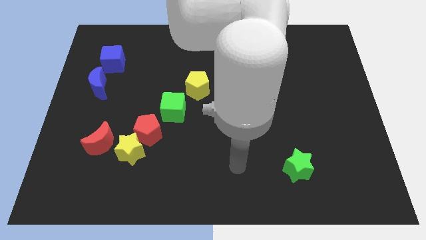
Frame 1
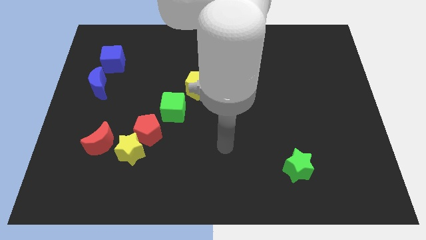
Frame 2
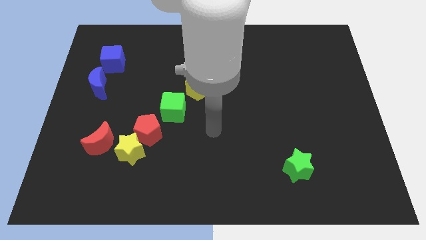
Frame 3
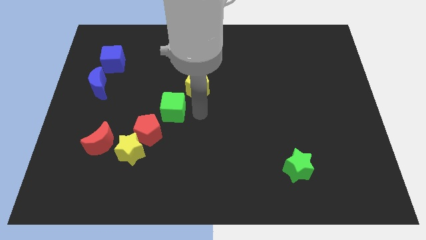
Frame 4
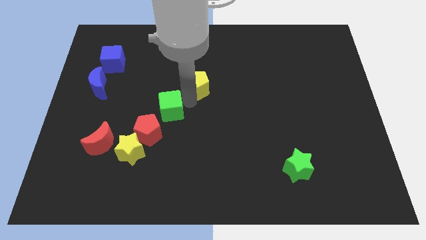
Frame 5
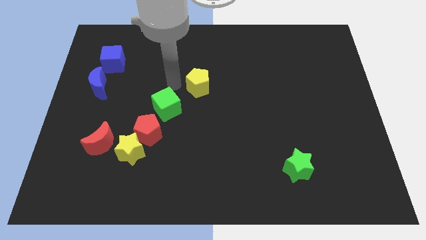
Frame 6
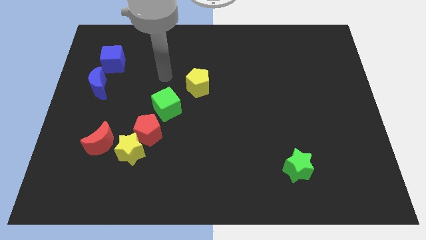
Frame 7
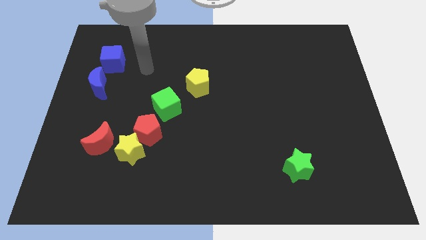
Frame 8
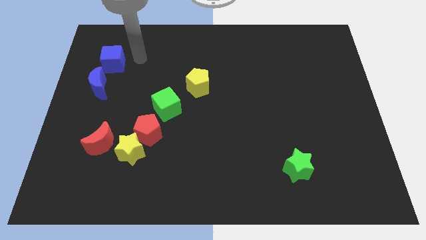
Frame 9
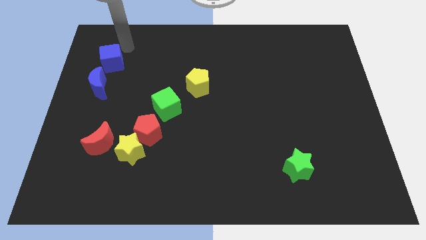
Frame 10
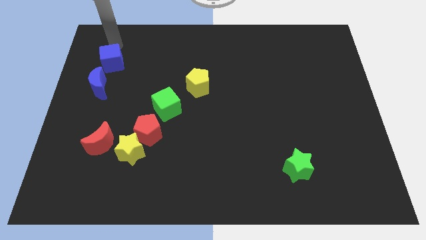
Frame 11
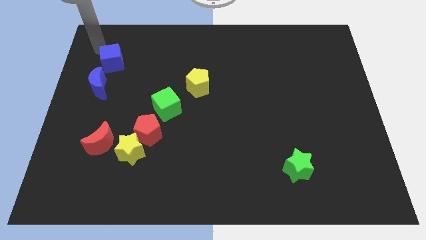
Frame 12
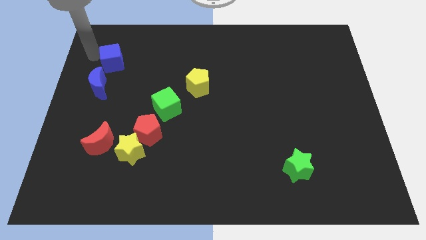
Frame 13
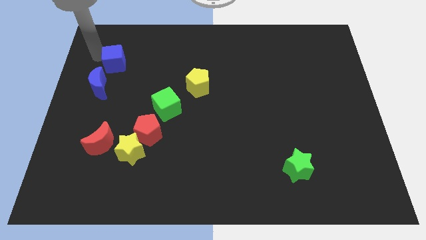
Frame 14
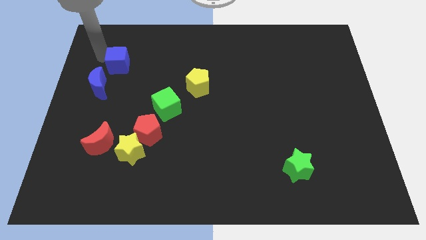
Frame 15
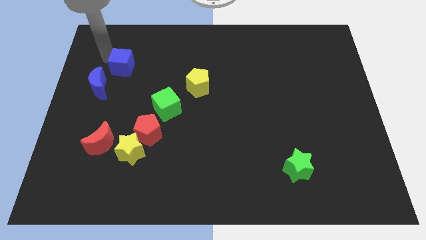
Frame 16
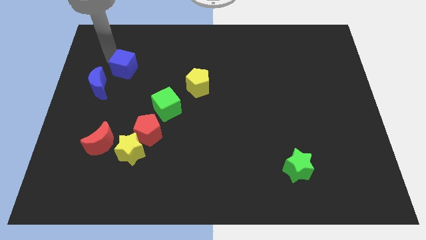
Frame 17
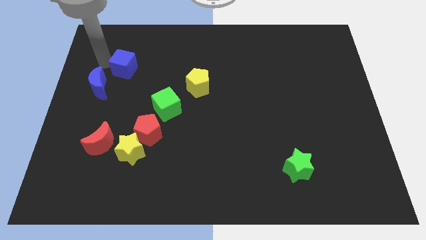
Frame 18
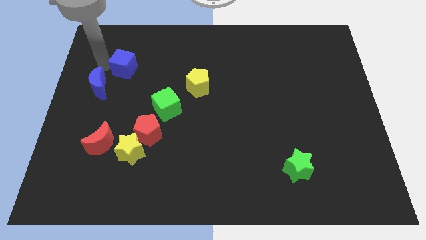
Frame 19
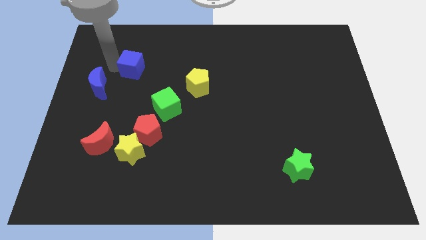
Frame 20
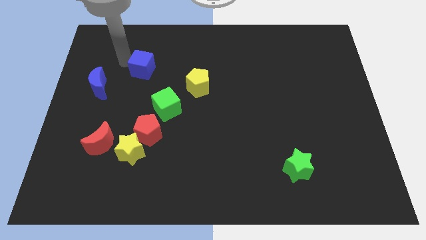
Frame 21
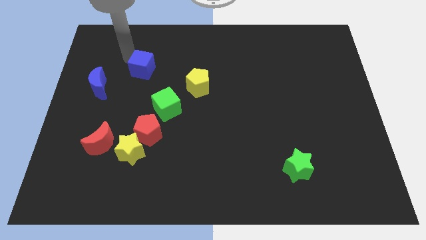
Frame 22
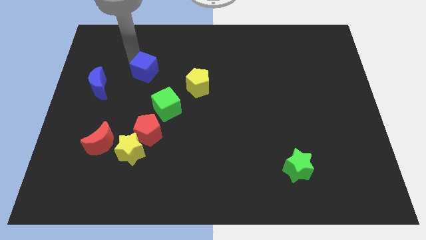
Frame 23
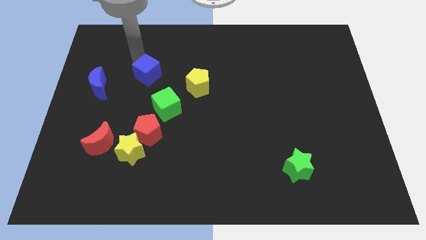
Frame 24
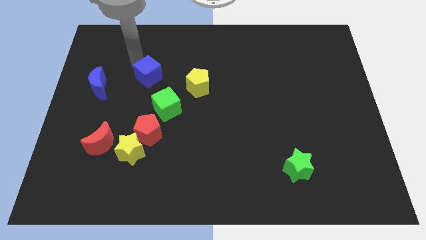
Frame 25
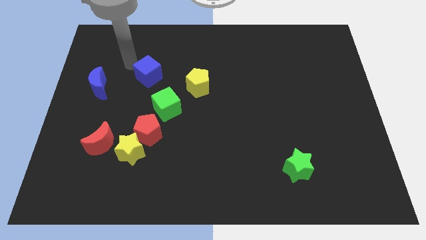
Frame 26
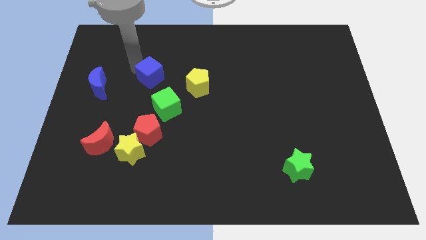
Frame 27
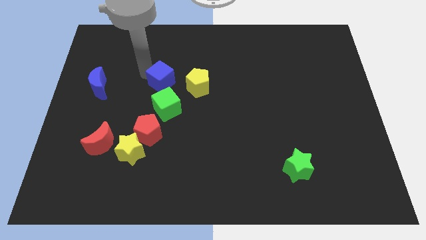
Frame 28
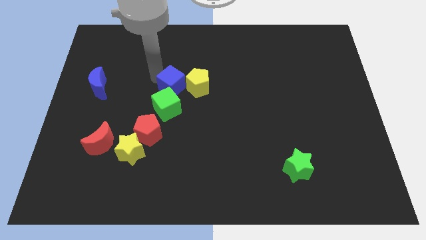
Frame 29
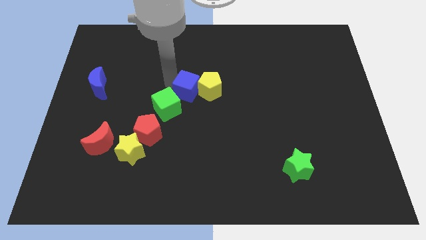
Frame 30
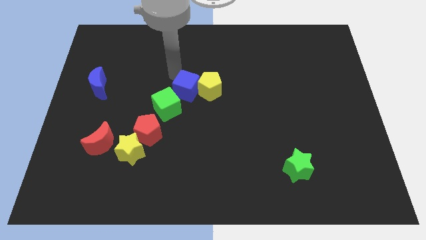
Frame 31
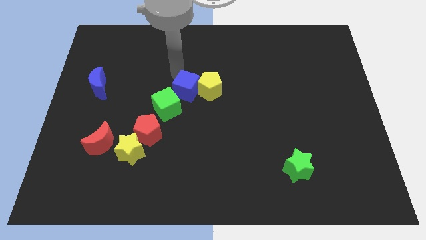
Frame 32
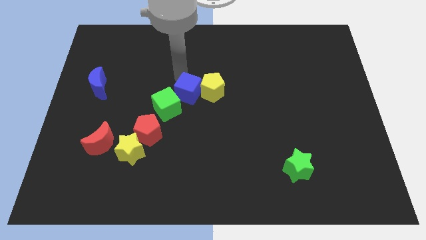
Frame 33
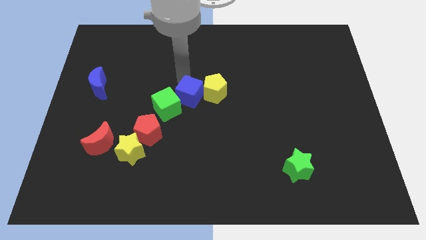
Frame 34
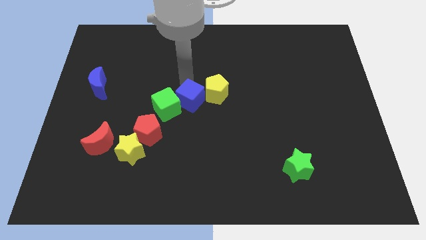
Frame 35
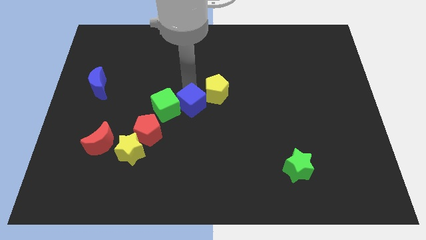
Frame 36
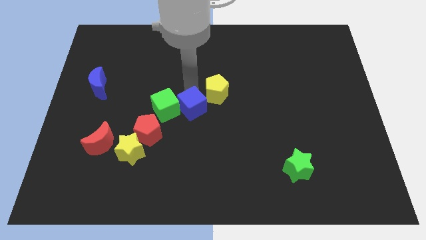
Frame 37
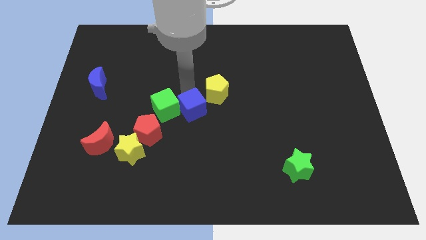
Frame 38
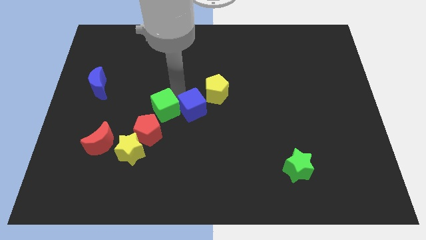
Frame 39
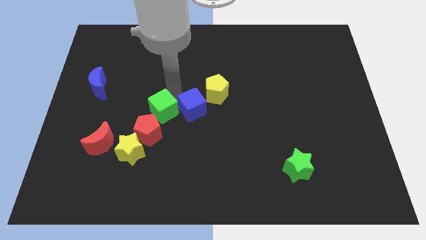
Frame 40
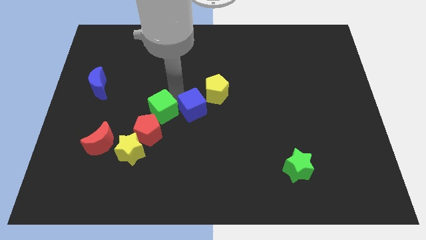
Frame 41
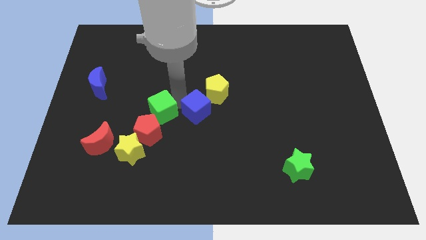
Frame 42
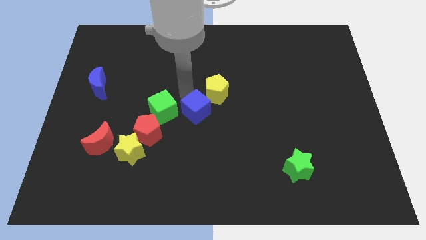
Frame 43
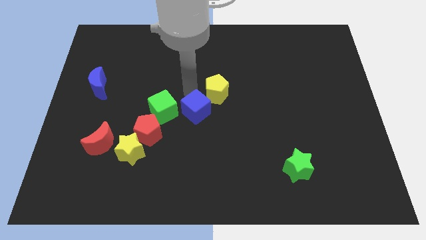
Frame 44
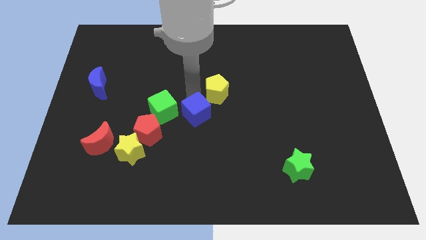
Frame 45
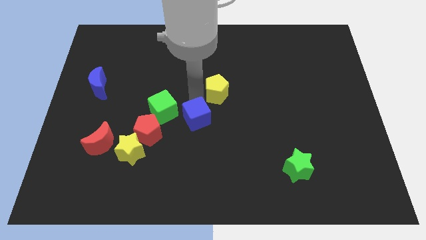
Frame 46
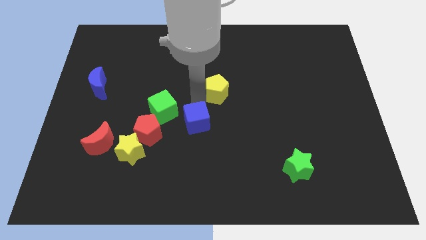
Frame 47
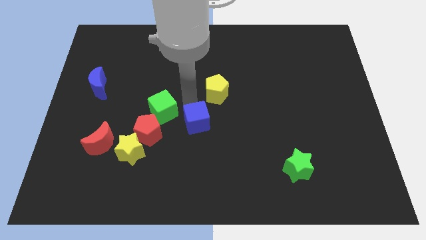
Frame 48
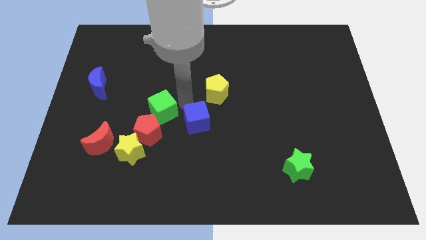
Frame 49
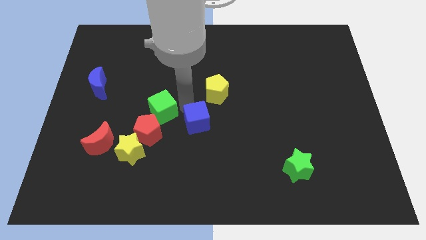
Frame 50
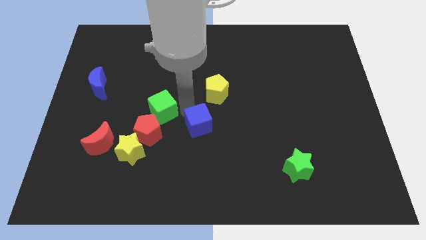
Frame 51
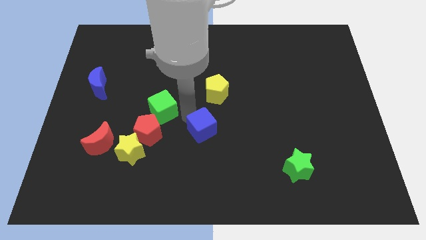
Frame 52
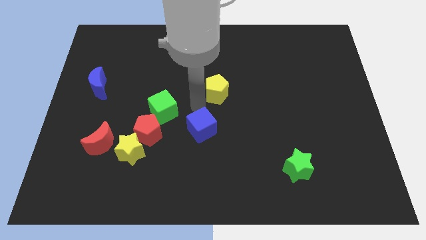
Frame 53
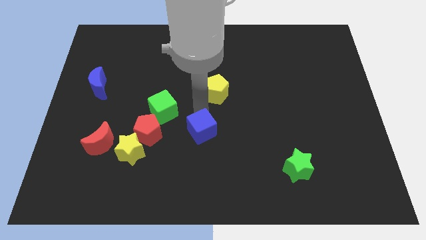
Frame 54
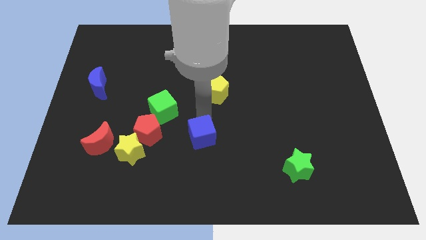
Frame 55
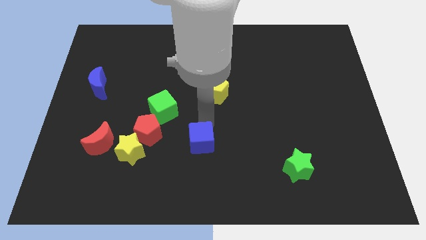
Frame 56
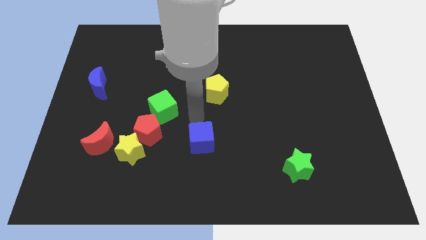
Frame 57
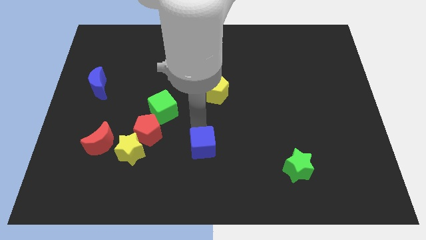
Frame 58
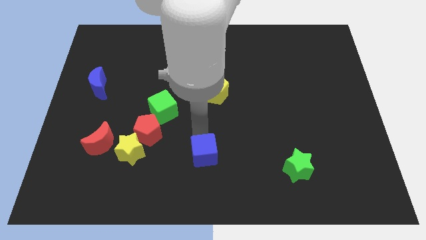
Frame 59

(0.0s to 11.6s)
put the blue cube to the bottom
